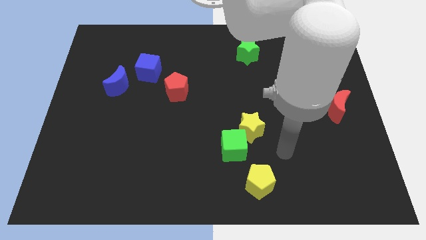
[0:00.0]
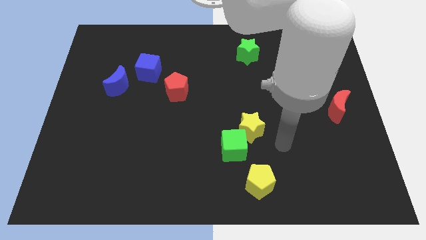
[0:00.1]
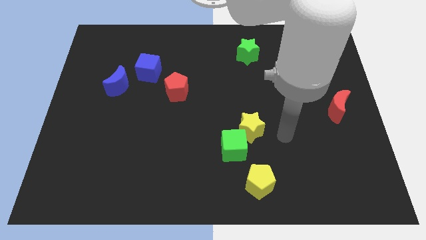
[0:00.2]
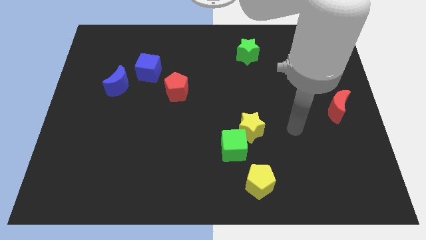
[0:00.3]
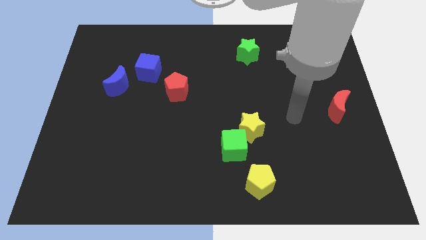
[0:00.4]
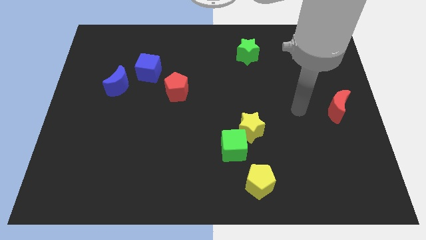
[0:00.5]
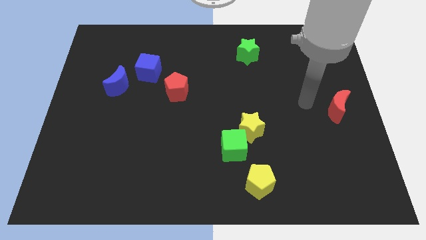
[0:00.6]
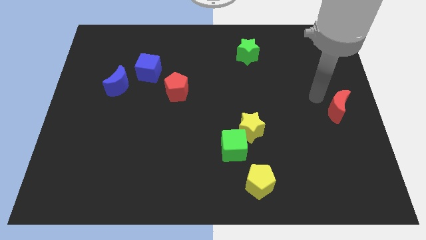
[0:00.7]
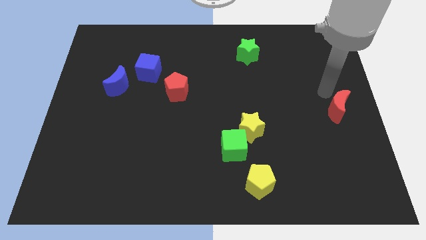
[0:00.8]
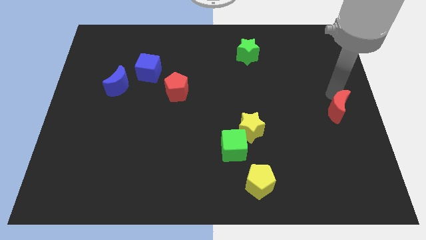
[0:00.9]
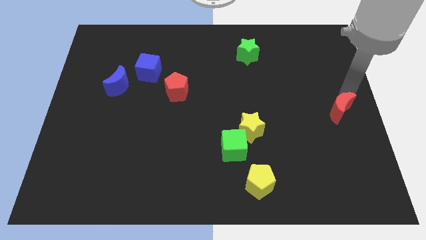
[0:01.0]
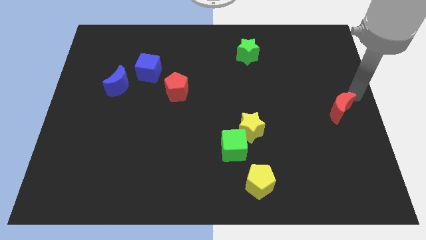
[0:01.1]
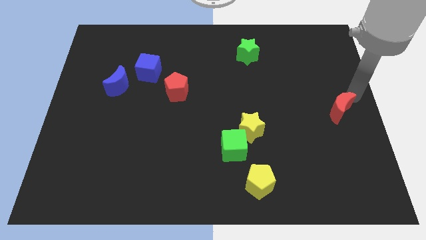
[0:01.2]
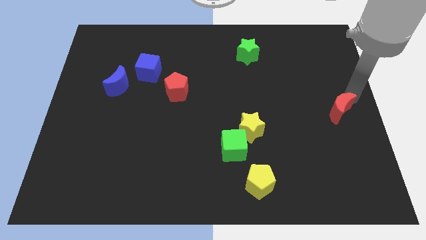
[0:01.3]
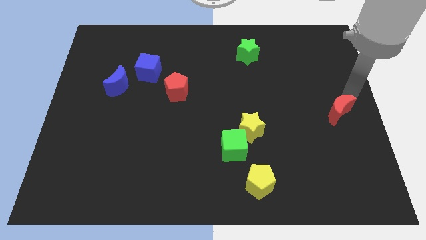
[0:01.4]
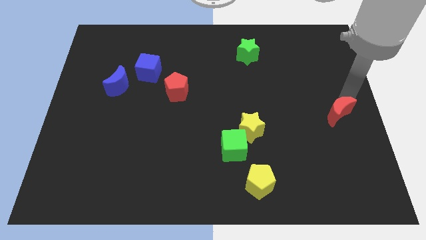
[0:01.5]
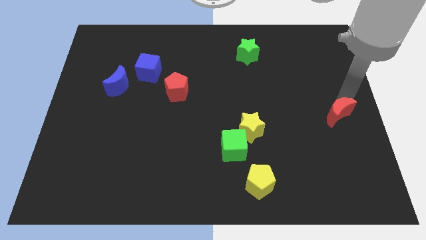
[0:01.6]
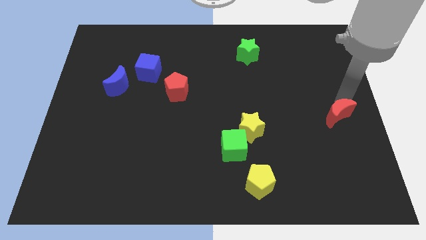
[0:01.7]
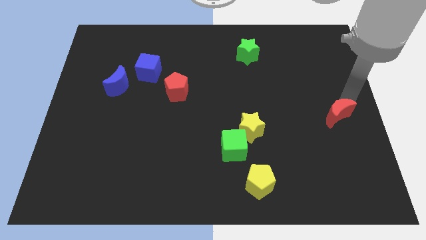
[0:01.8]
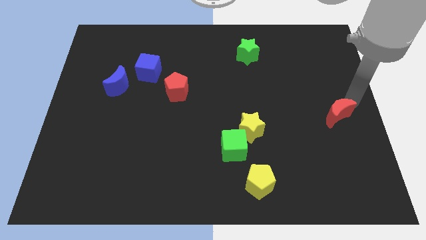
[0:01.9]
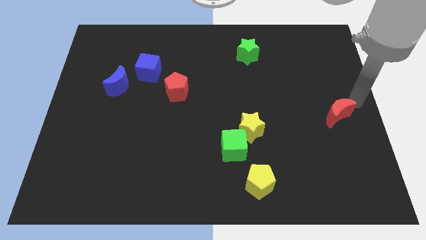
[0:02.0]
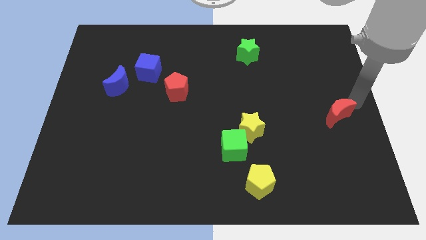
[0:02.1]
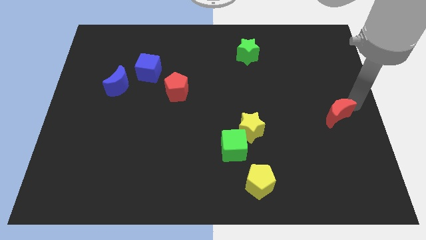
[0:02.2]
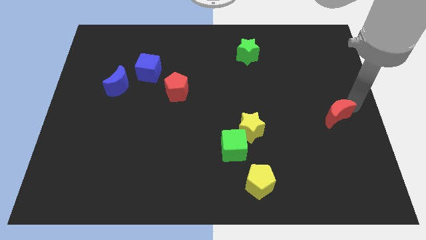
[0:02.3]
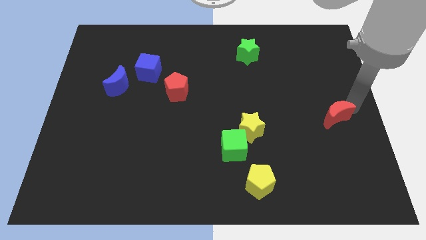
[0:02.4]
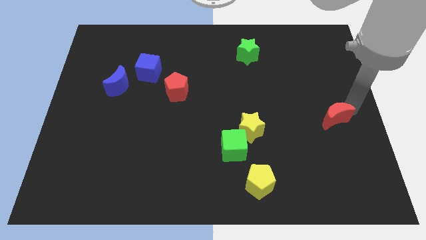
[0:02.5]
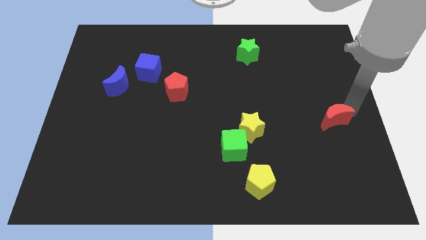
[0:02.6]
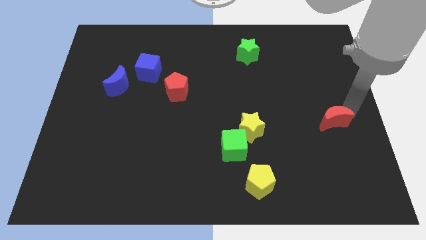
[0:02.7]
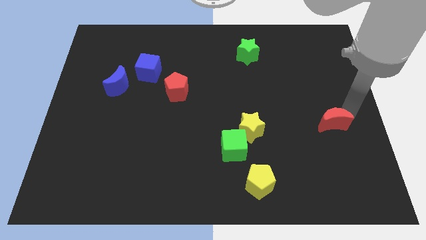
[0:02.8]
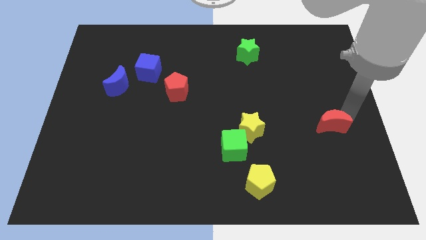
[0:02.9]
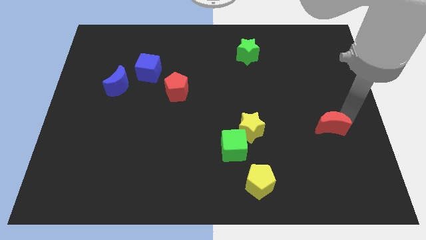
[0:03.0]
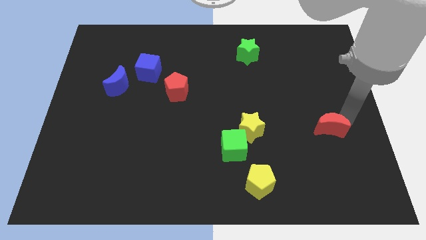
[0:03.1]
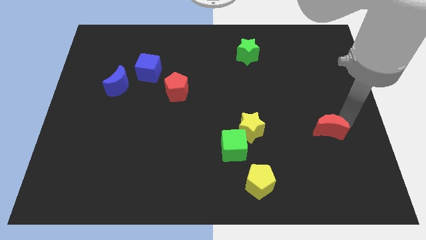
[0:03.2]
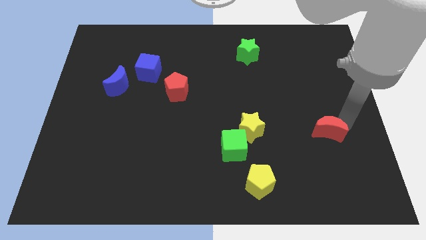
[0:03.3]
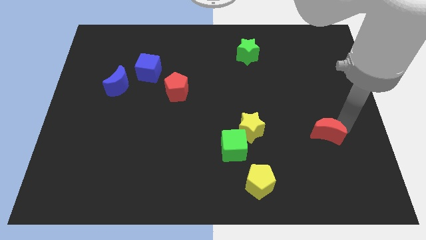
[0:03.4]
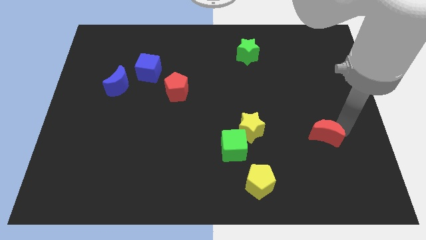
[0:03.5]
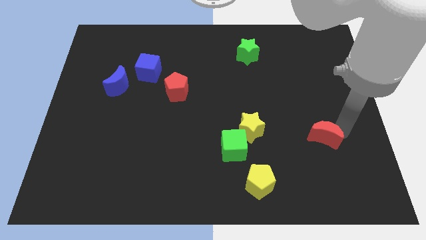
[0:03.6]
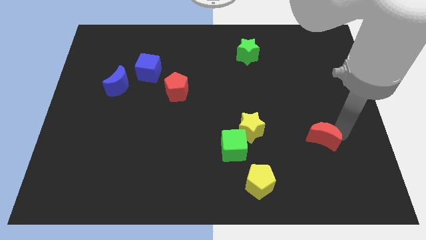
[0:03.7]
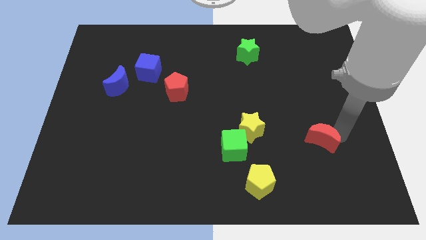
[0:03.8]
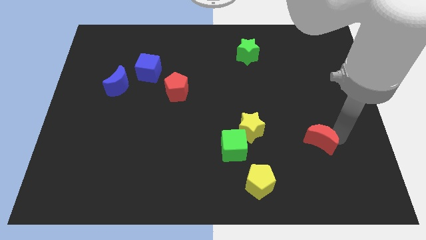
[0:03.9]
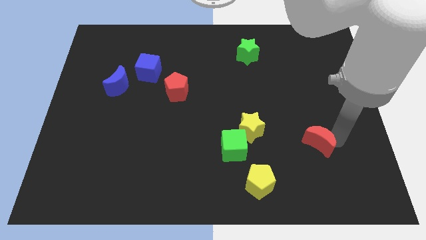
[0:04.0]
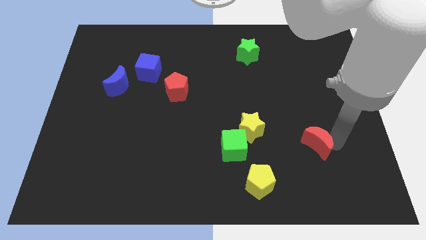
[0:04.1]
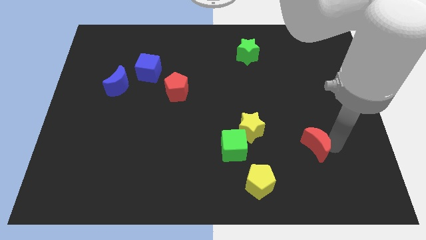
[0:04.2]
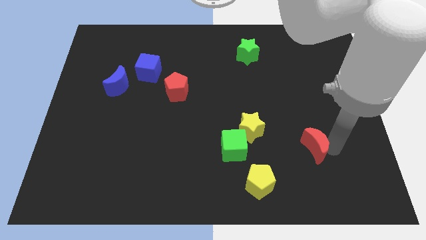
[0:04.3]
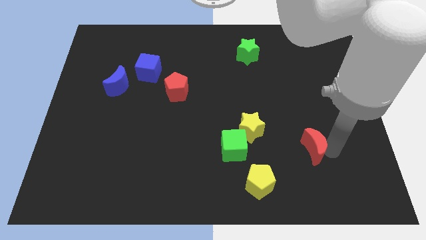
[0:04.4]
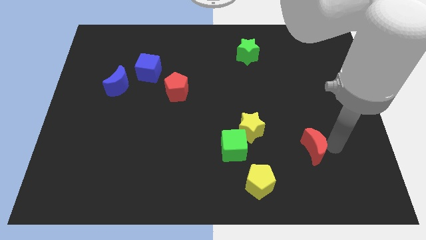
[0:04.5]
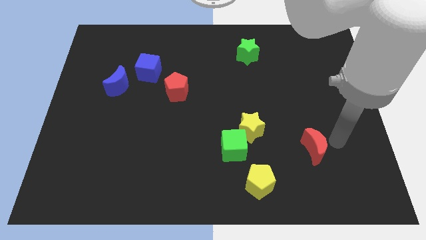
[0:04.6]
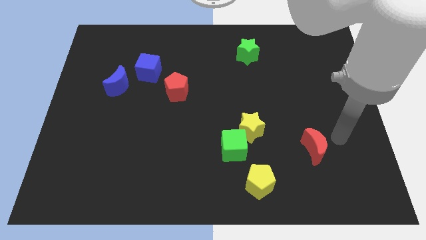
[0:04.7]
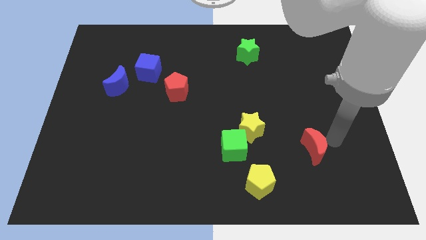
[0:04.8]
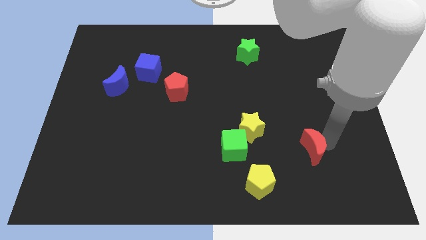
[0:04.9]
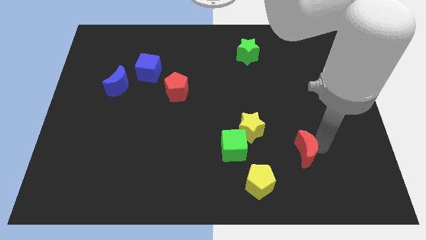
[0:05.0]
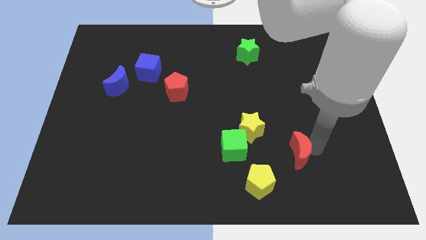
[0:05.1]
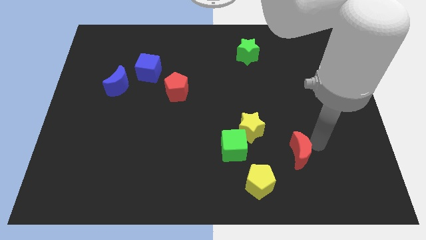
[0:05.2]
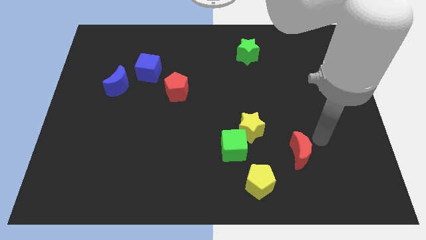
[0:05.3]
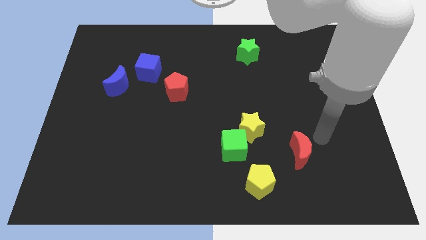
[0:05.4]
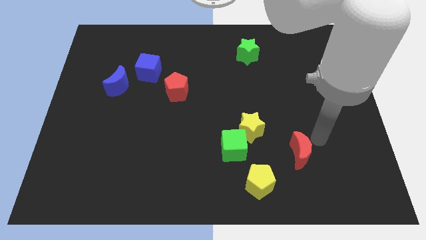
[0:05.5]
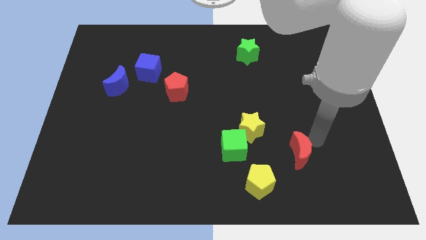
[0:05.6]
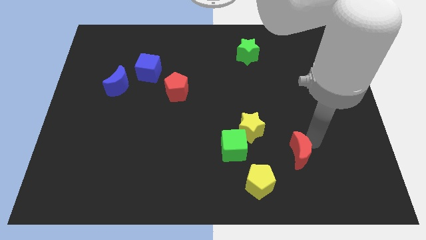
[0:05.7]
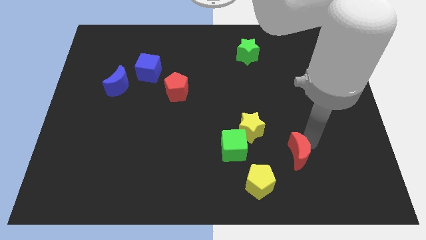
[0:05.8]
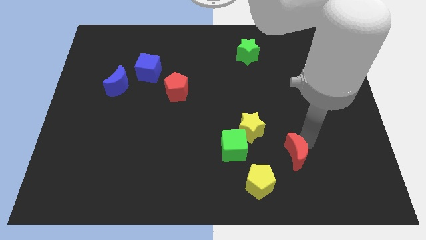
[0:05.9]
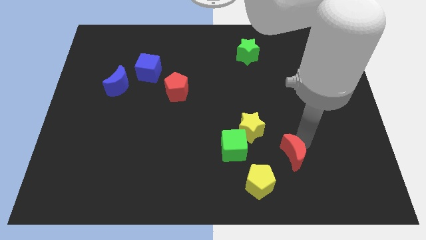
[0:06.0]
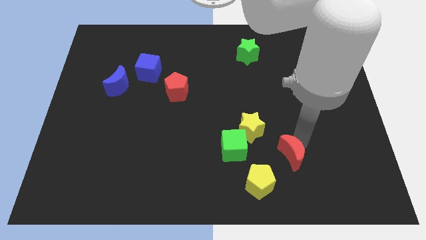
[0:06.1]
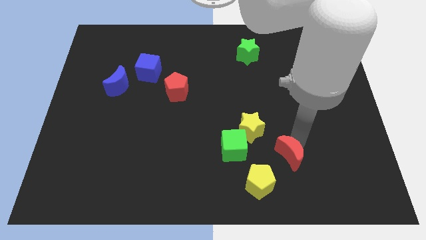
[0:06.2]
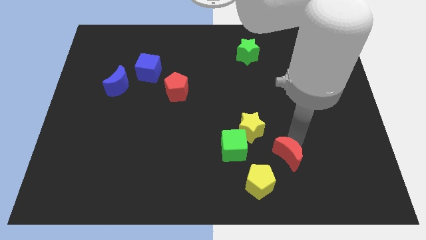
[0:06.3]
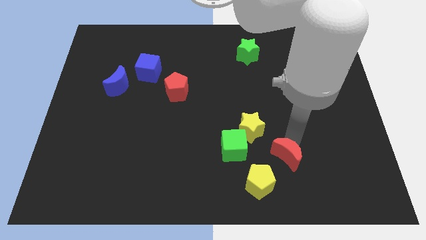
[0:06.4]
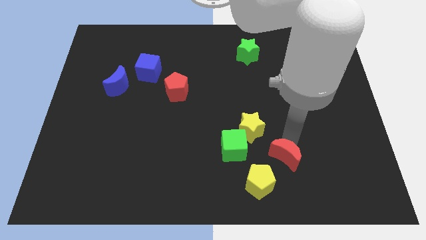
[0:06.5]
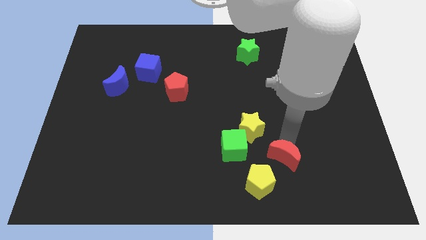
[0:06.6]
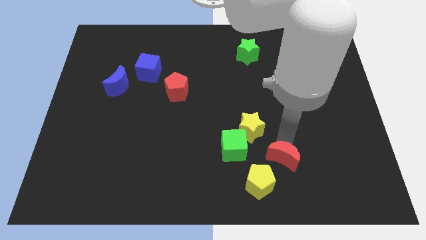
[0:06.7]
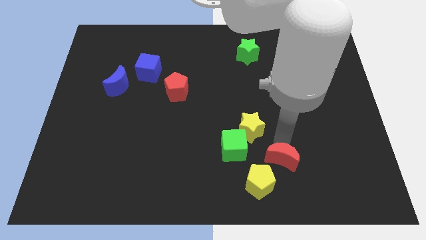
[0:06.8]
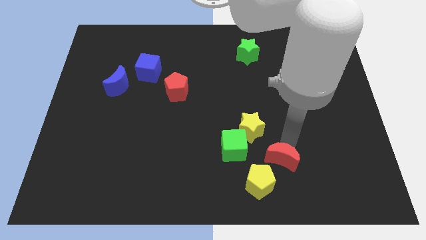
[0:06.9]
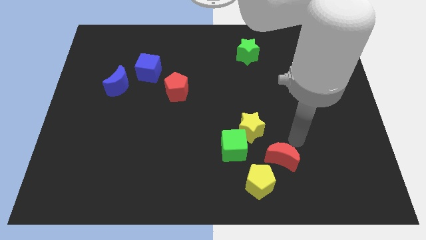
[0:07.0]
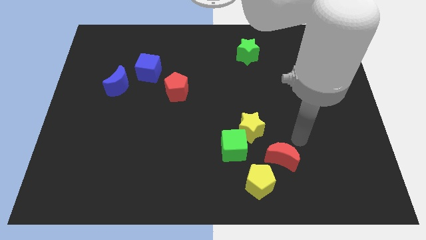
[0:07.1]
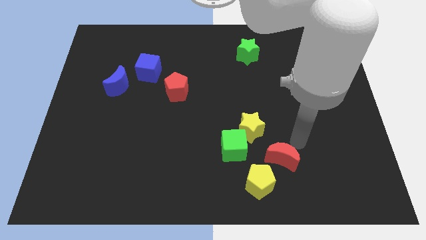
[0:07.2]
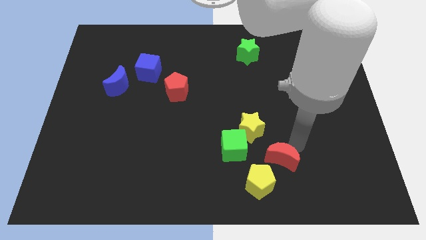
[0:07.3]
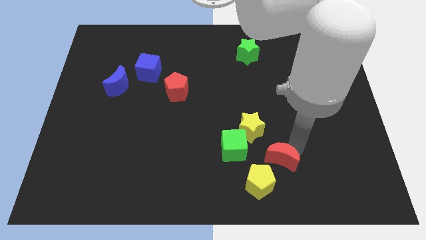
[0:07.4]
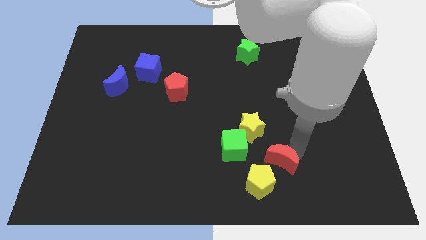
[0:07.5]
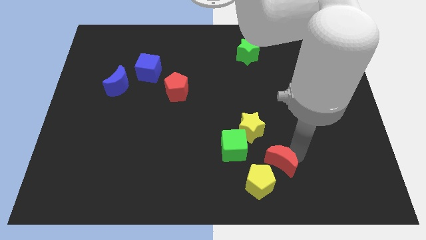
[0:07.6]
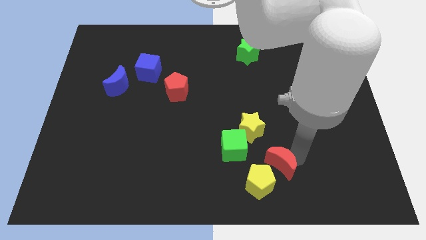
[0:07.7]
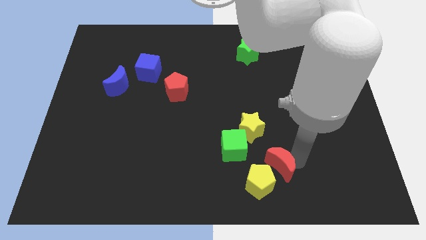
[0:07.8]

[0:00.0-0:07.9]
move the red moon close to the yellow pentagon
